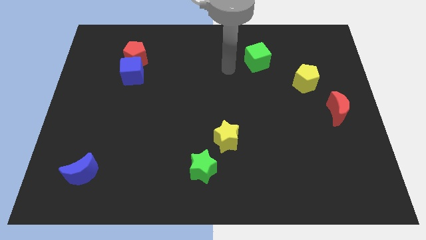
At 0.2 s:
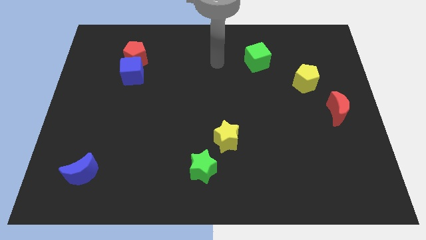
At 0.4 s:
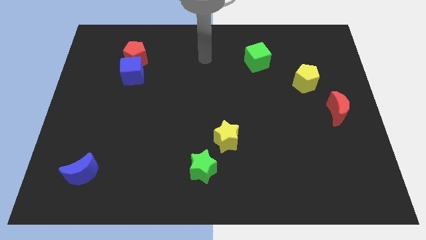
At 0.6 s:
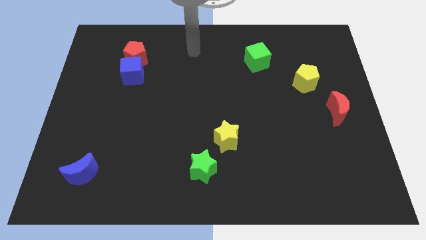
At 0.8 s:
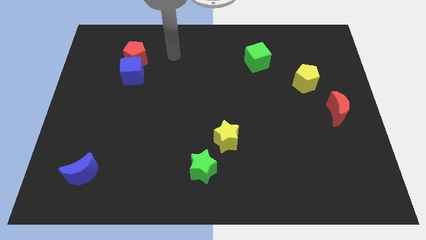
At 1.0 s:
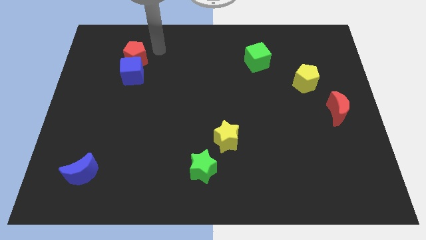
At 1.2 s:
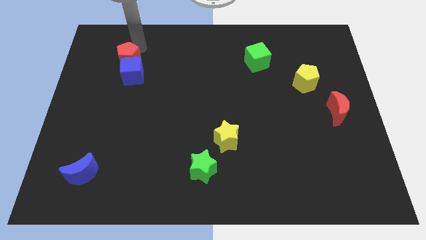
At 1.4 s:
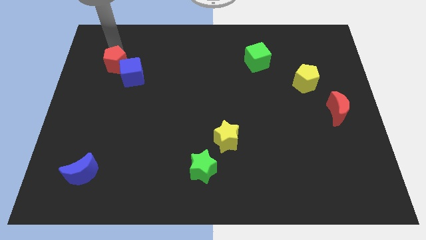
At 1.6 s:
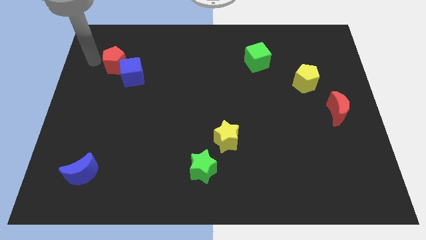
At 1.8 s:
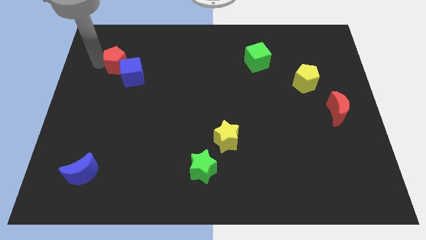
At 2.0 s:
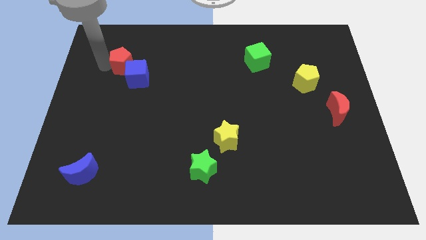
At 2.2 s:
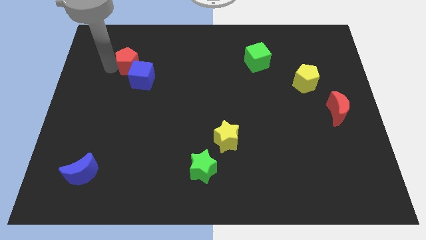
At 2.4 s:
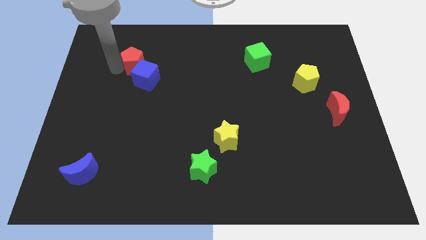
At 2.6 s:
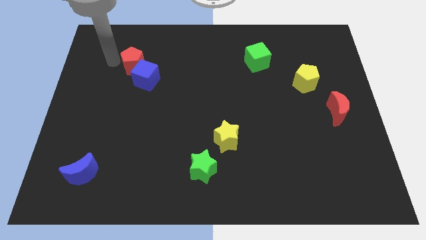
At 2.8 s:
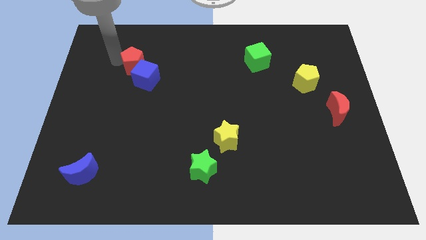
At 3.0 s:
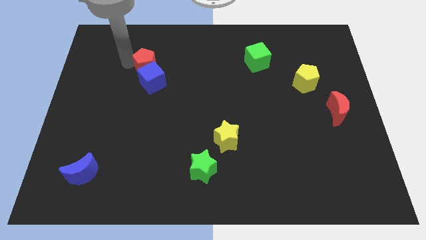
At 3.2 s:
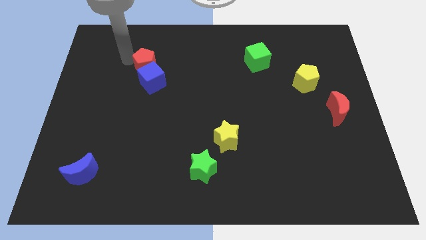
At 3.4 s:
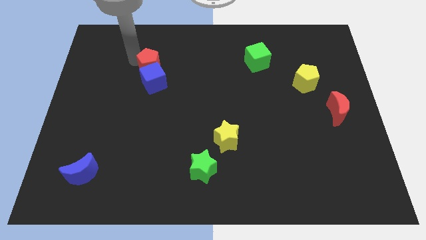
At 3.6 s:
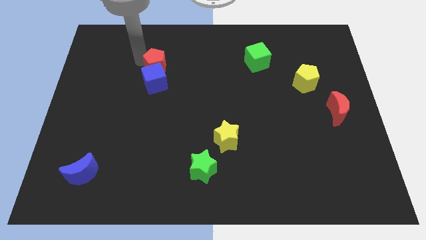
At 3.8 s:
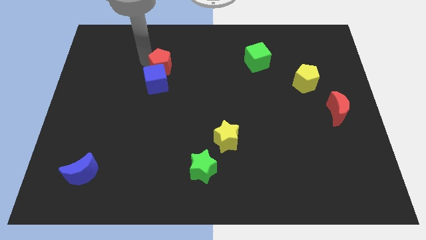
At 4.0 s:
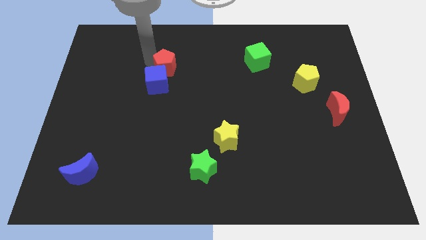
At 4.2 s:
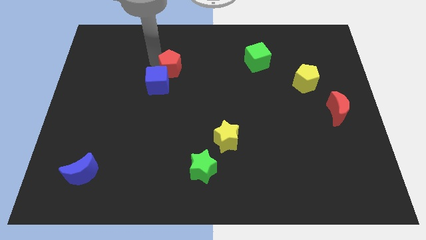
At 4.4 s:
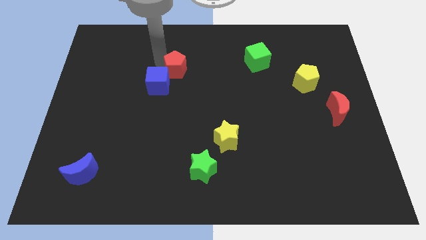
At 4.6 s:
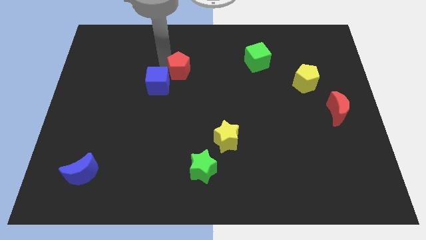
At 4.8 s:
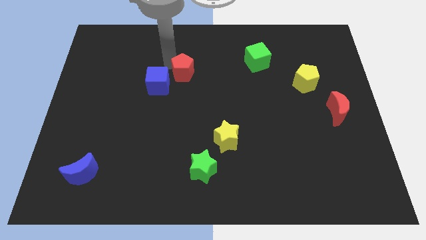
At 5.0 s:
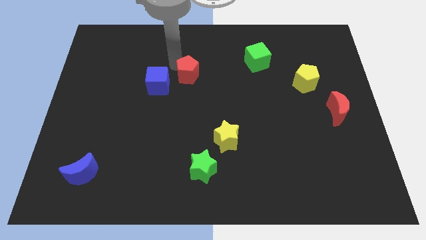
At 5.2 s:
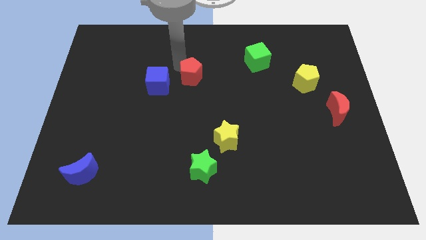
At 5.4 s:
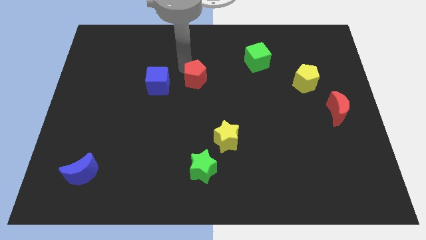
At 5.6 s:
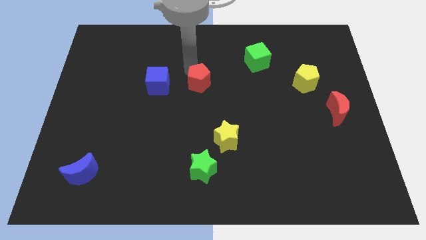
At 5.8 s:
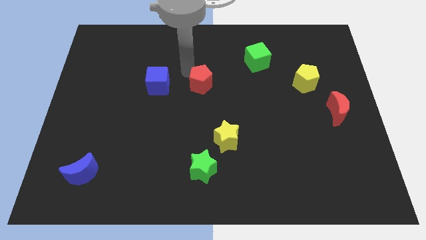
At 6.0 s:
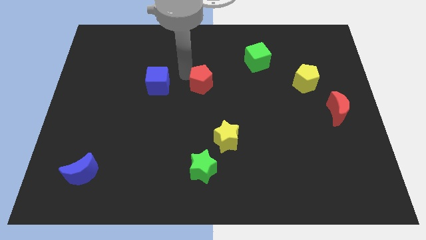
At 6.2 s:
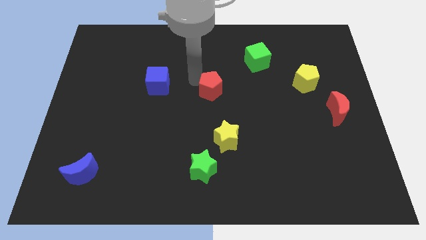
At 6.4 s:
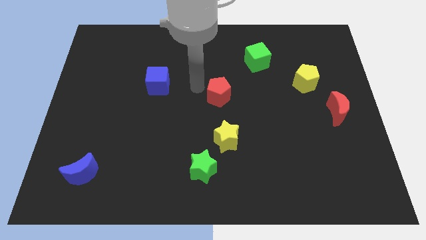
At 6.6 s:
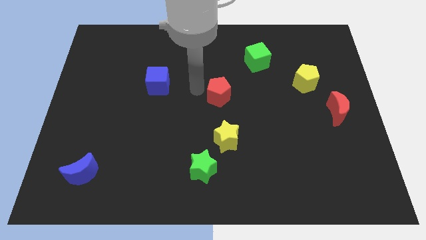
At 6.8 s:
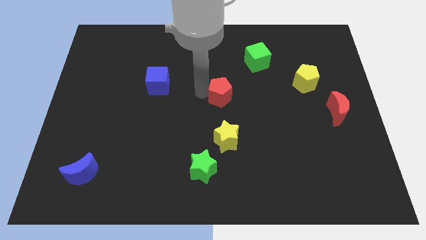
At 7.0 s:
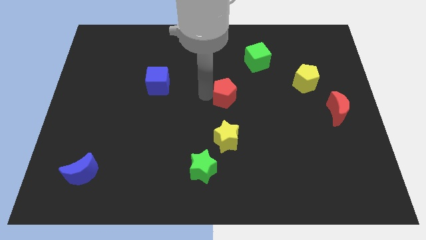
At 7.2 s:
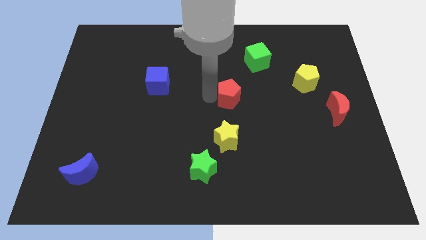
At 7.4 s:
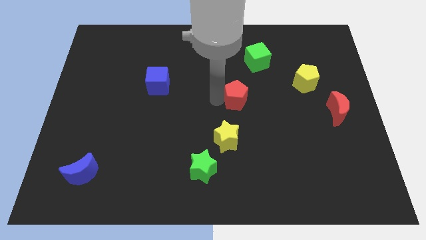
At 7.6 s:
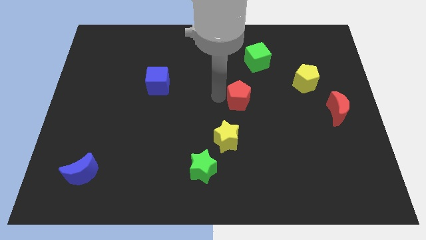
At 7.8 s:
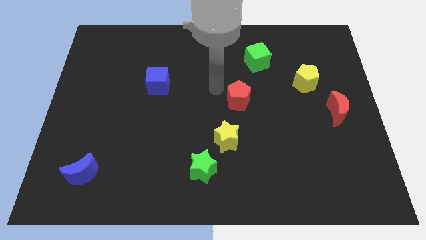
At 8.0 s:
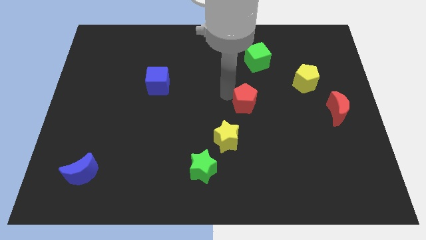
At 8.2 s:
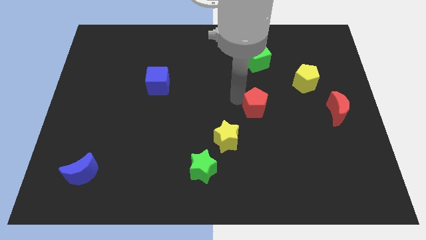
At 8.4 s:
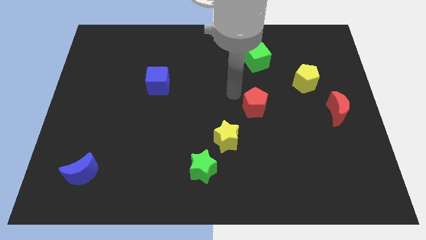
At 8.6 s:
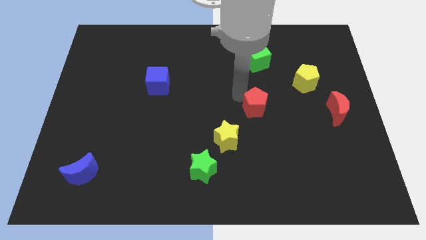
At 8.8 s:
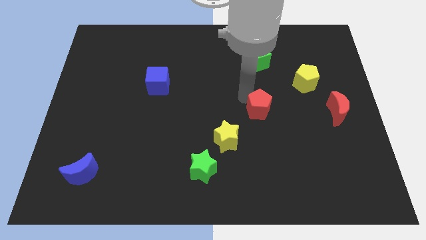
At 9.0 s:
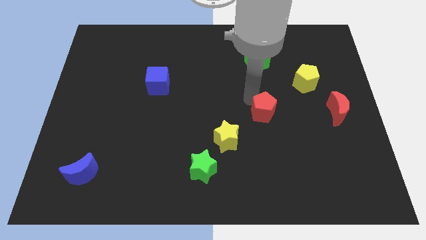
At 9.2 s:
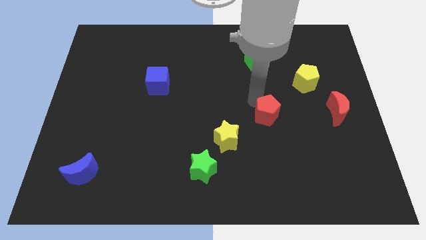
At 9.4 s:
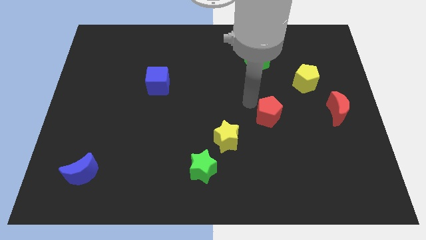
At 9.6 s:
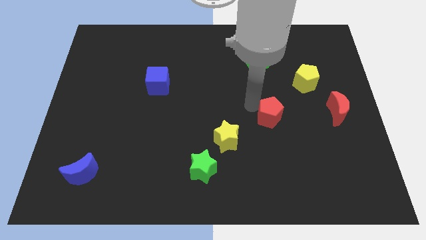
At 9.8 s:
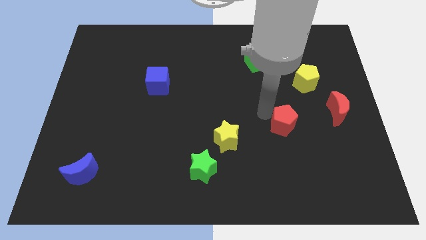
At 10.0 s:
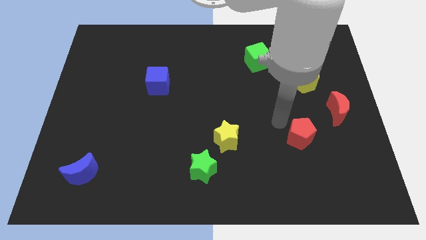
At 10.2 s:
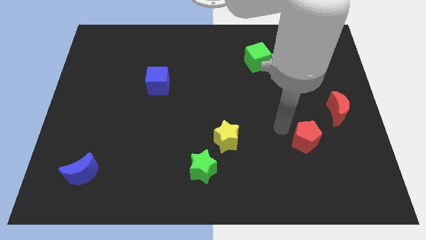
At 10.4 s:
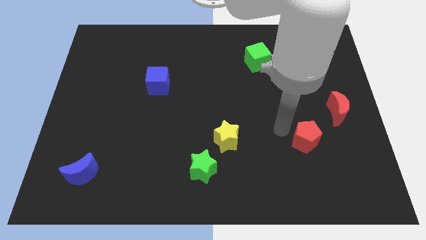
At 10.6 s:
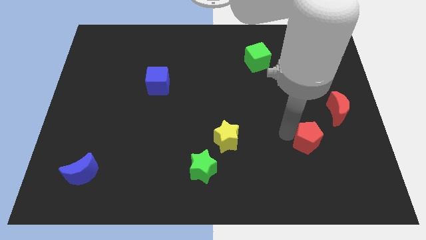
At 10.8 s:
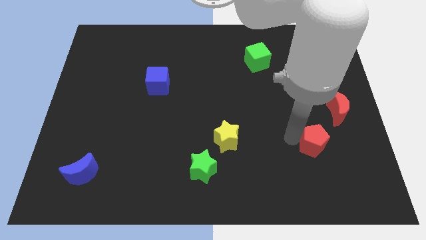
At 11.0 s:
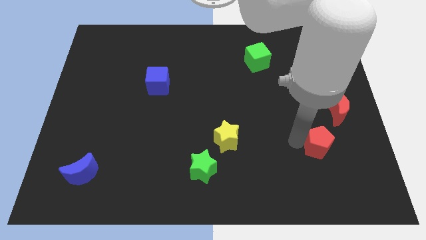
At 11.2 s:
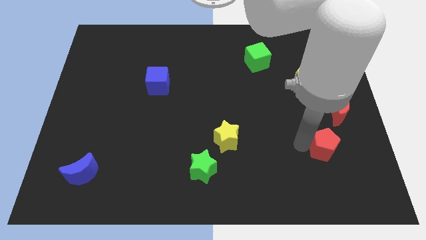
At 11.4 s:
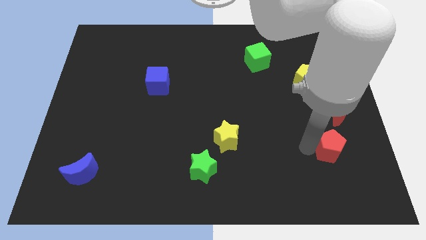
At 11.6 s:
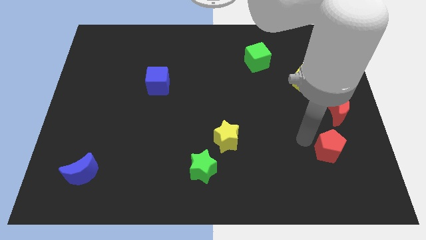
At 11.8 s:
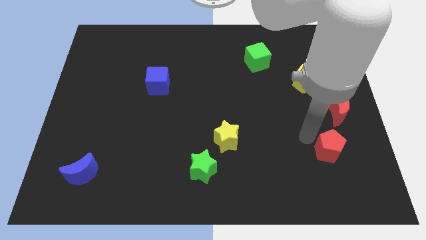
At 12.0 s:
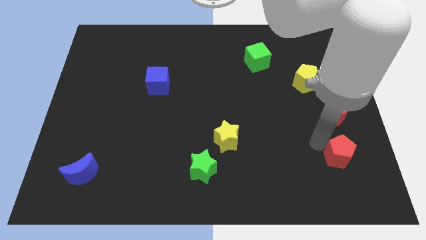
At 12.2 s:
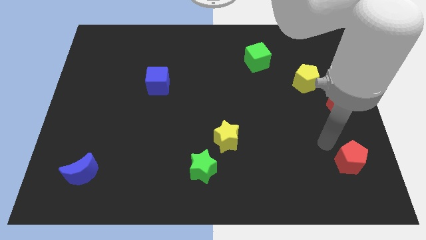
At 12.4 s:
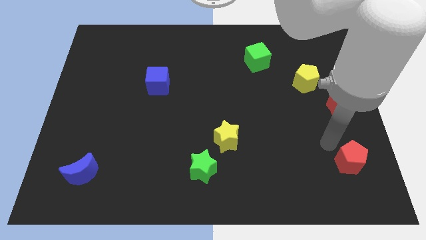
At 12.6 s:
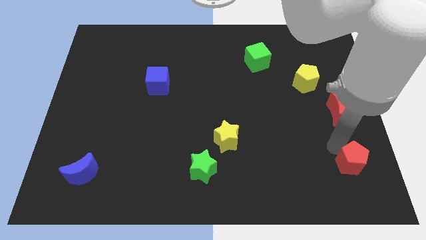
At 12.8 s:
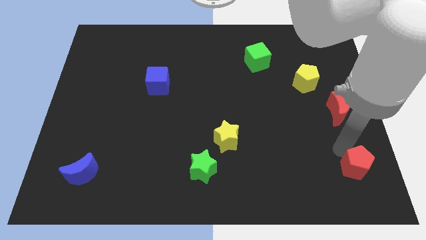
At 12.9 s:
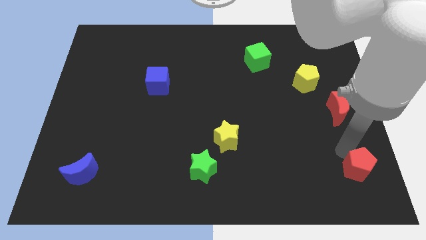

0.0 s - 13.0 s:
push the red pentagon to the bottom right
